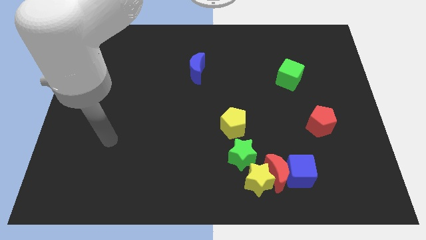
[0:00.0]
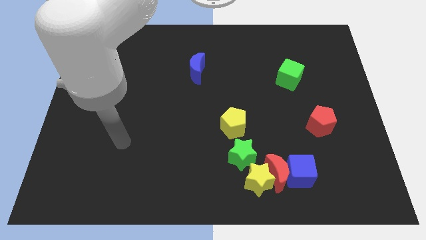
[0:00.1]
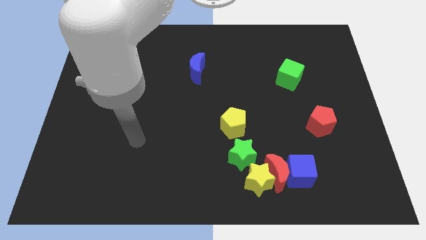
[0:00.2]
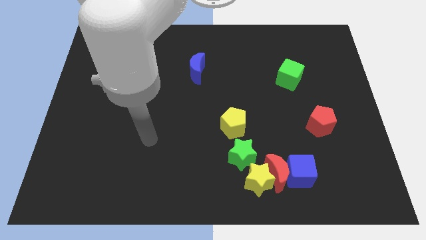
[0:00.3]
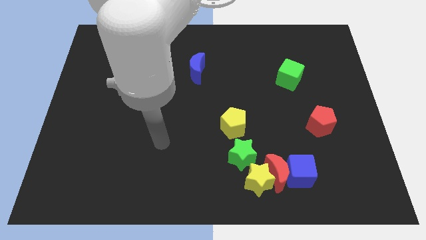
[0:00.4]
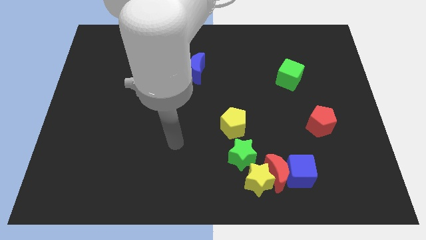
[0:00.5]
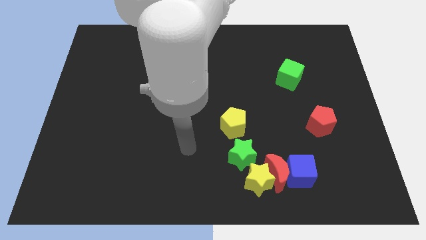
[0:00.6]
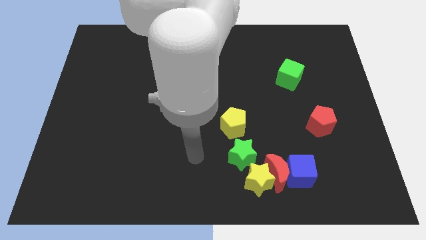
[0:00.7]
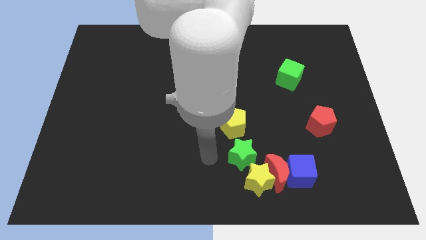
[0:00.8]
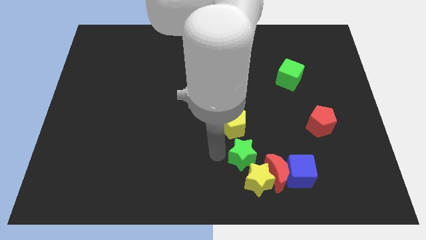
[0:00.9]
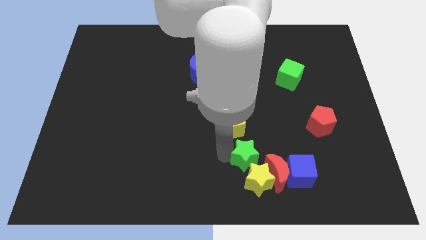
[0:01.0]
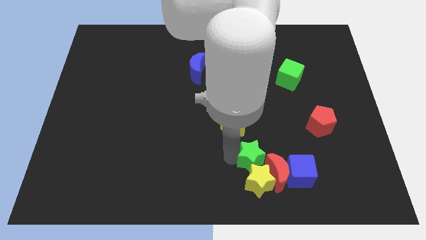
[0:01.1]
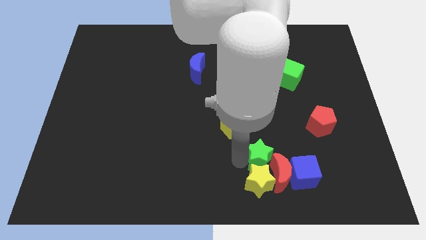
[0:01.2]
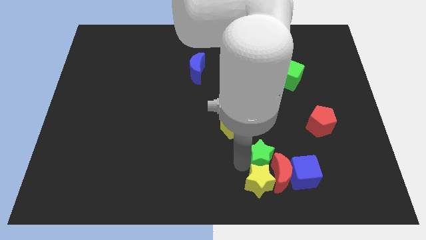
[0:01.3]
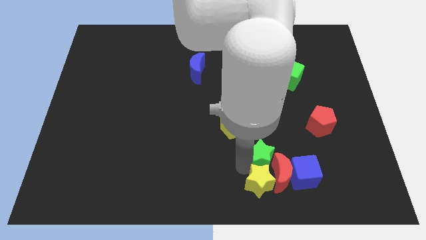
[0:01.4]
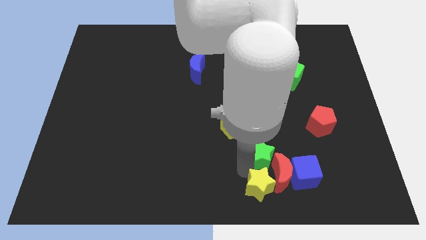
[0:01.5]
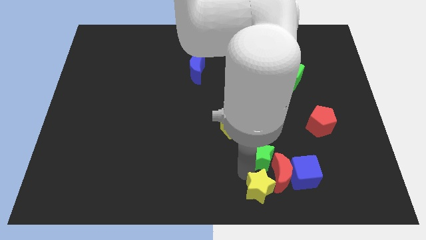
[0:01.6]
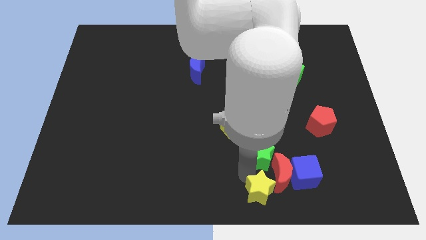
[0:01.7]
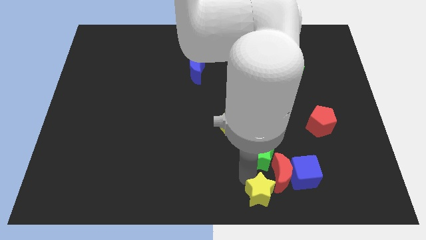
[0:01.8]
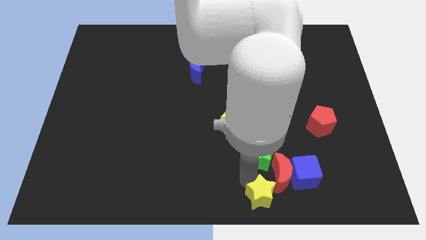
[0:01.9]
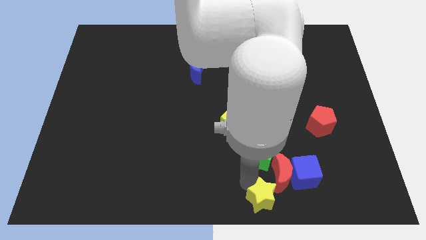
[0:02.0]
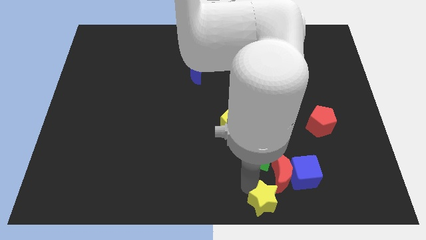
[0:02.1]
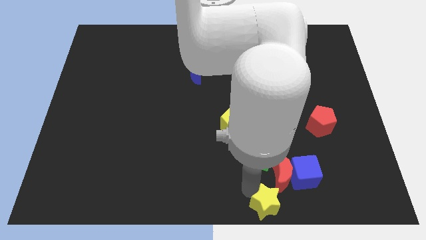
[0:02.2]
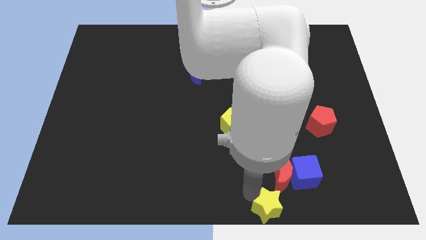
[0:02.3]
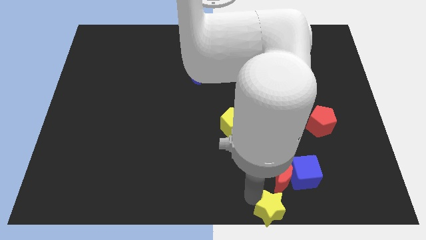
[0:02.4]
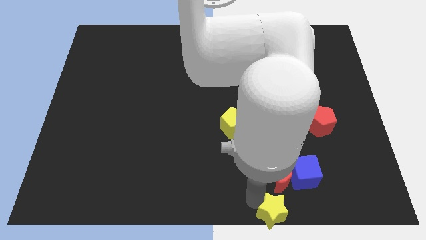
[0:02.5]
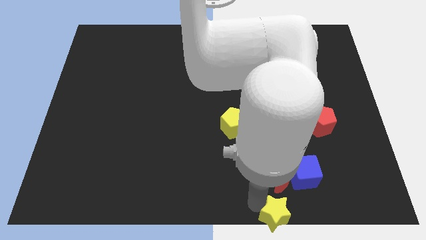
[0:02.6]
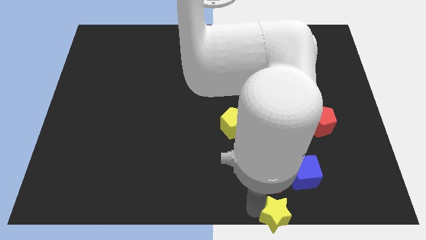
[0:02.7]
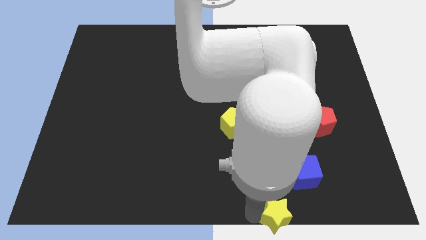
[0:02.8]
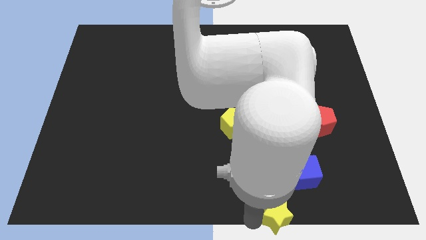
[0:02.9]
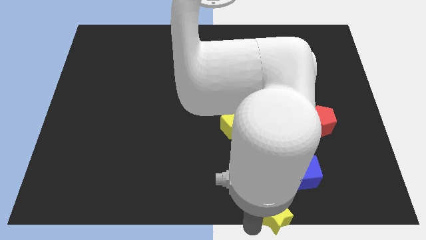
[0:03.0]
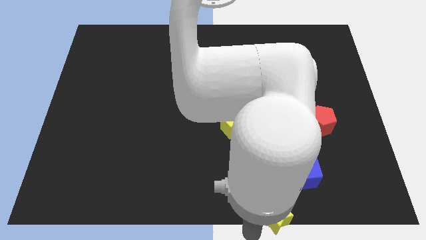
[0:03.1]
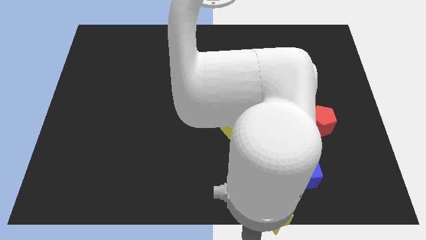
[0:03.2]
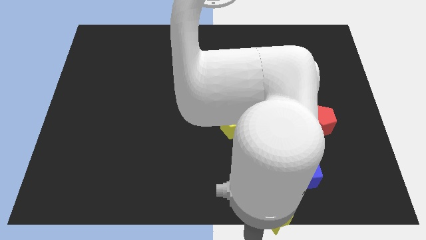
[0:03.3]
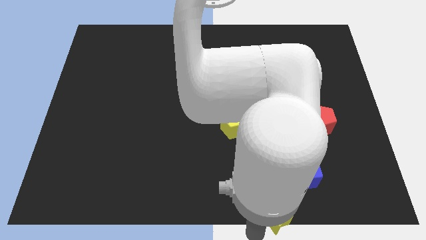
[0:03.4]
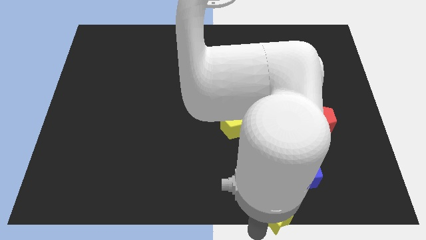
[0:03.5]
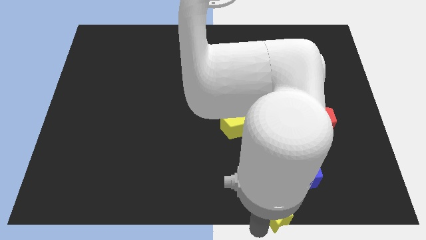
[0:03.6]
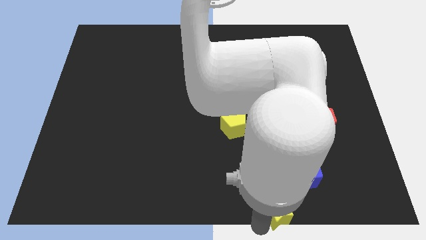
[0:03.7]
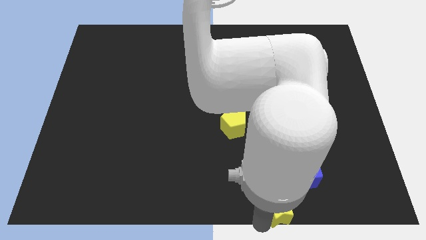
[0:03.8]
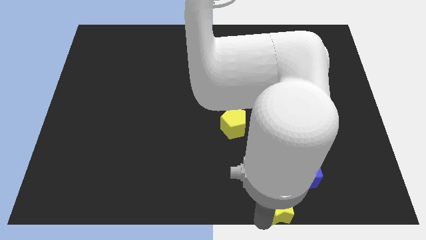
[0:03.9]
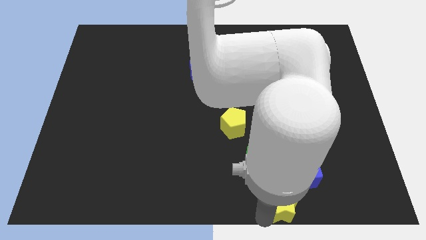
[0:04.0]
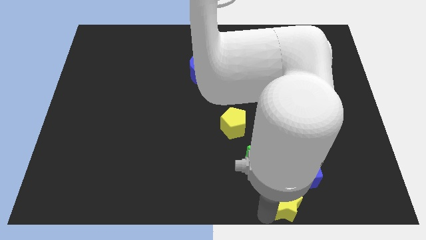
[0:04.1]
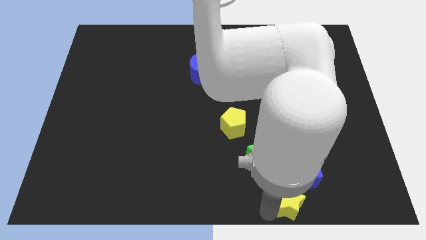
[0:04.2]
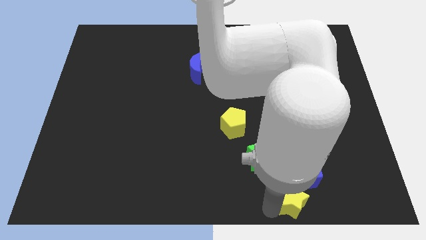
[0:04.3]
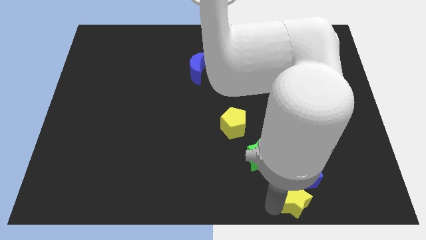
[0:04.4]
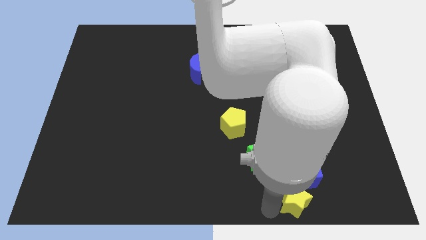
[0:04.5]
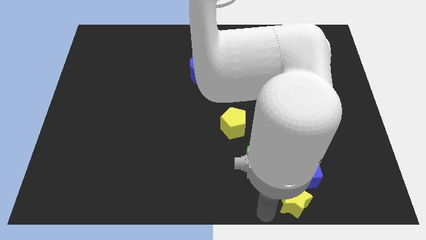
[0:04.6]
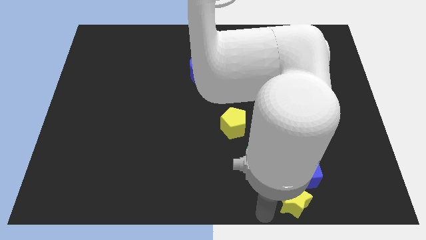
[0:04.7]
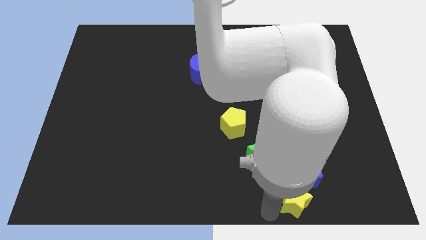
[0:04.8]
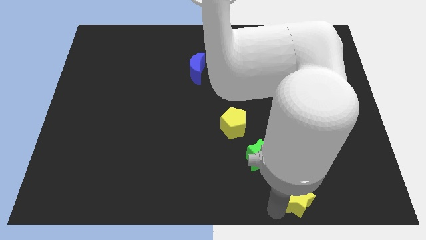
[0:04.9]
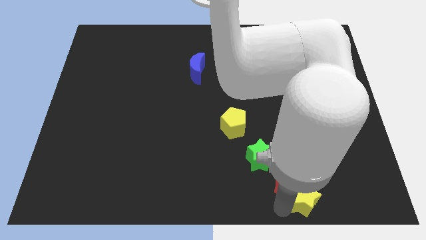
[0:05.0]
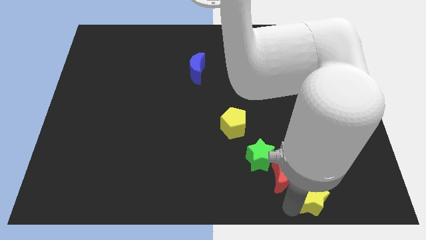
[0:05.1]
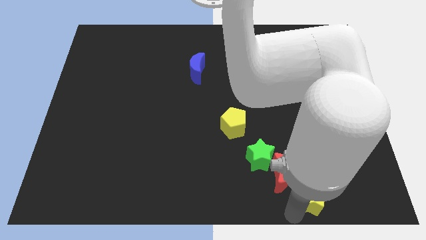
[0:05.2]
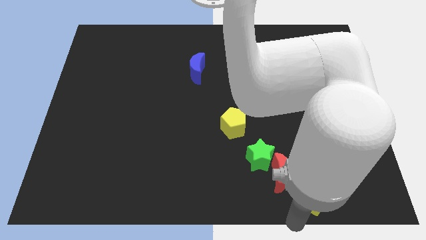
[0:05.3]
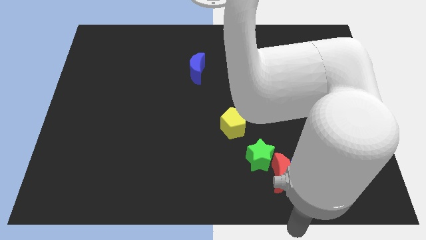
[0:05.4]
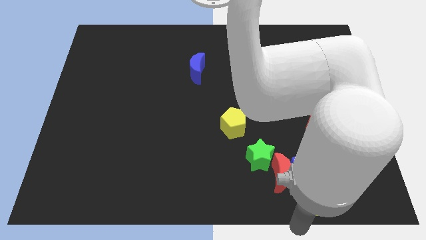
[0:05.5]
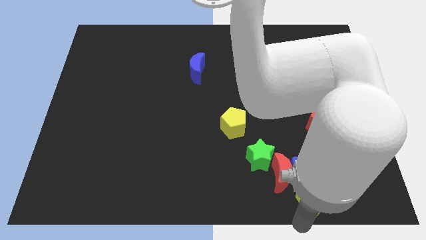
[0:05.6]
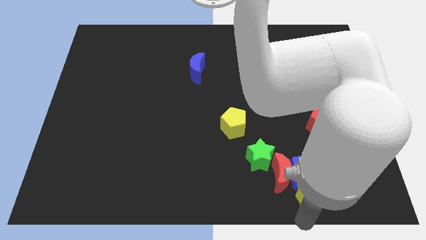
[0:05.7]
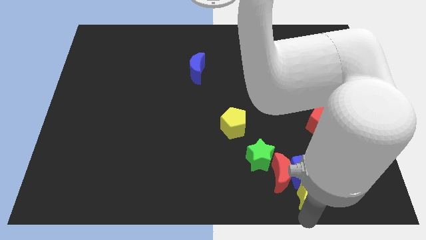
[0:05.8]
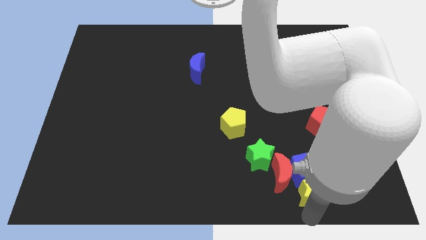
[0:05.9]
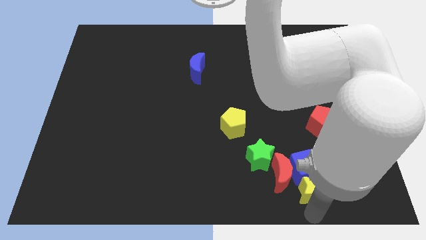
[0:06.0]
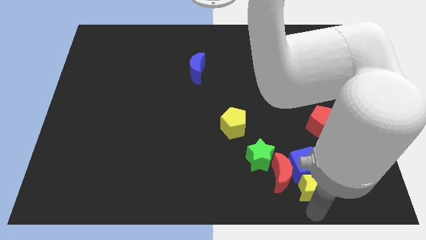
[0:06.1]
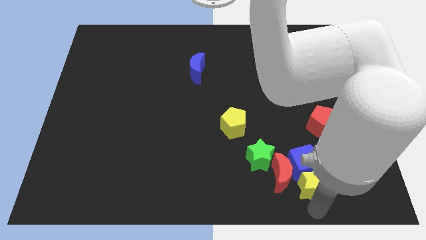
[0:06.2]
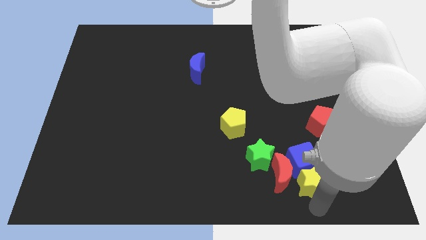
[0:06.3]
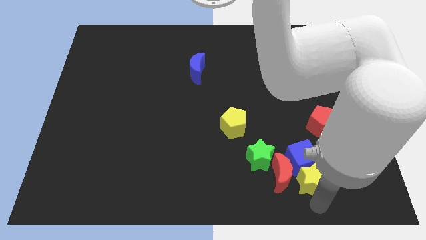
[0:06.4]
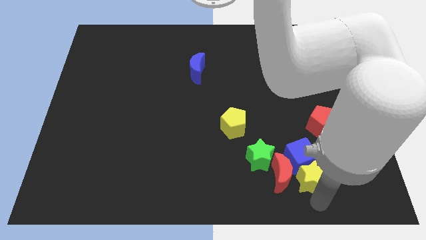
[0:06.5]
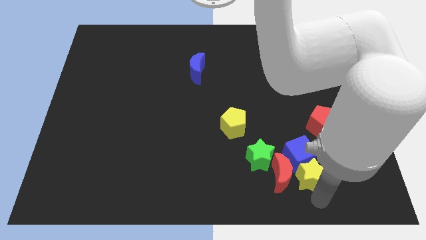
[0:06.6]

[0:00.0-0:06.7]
slide the yellow star below the red pentagon

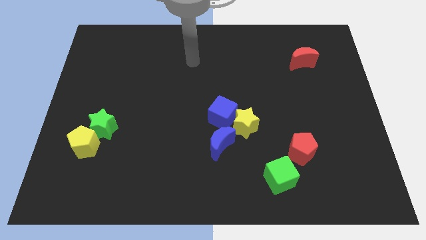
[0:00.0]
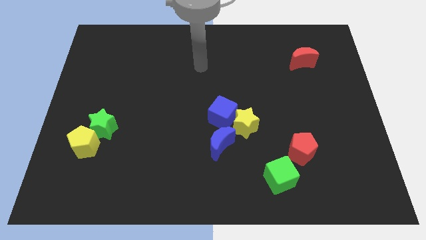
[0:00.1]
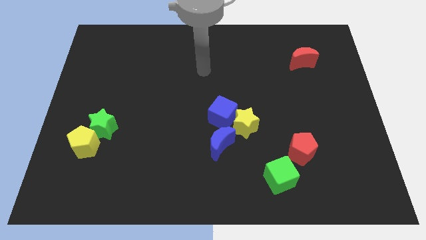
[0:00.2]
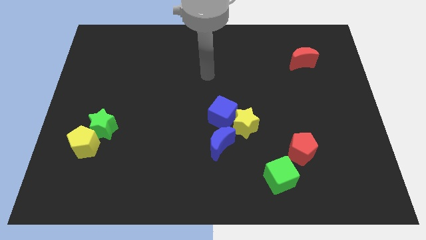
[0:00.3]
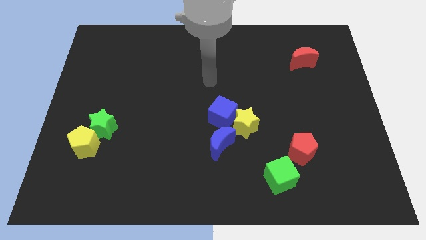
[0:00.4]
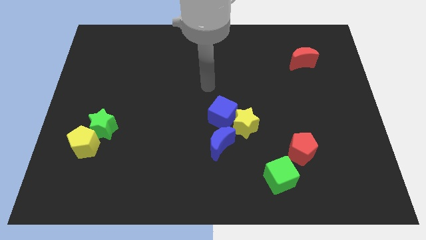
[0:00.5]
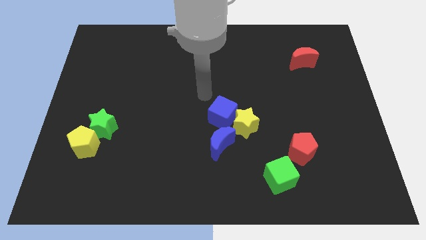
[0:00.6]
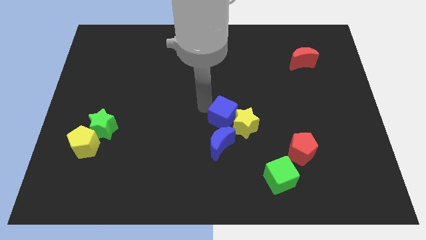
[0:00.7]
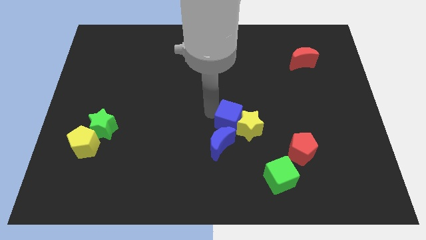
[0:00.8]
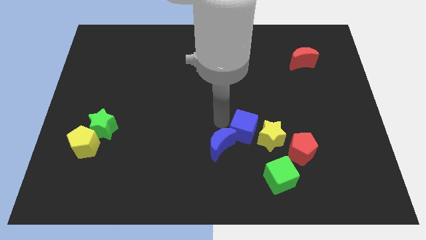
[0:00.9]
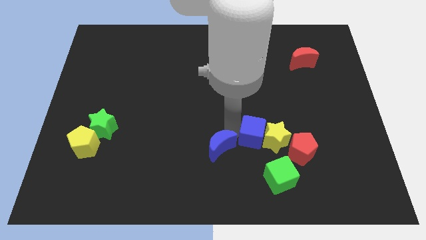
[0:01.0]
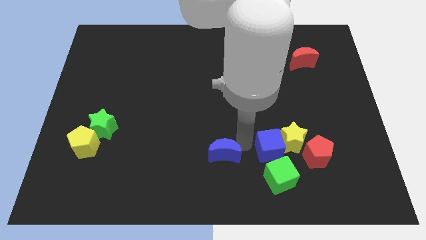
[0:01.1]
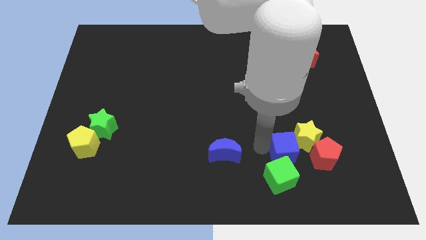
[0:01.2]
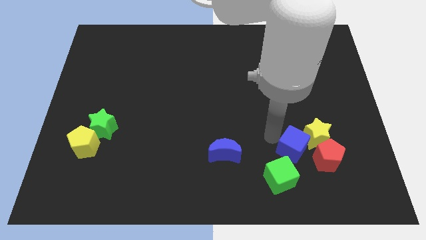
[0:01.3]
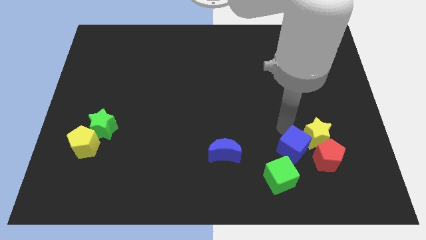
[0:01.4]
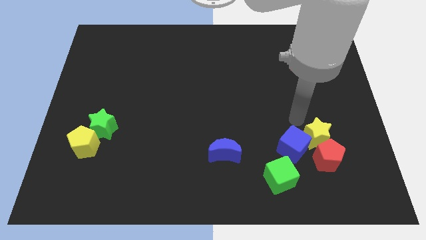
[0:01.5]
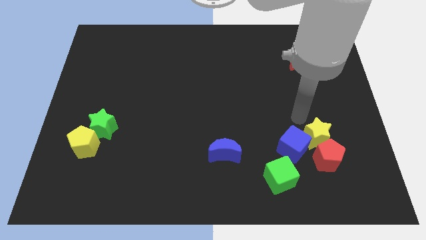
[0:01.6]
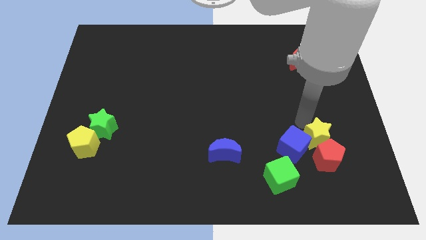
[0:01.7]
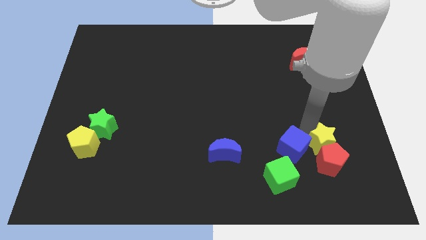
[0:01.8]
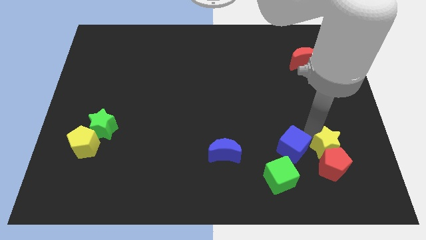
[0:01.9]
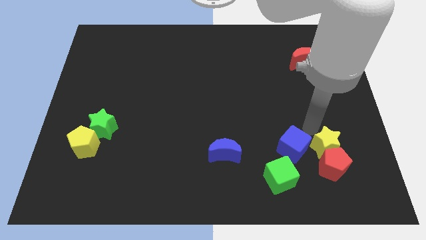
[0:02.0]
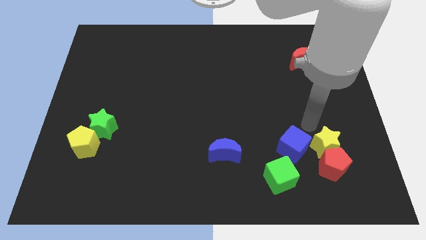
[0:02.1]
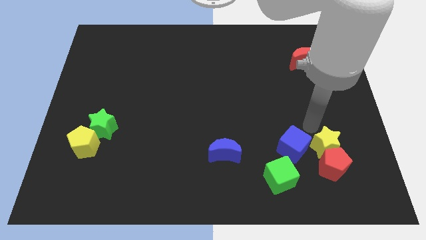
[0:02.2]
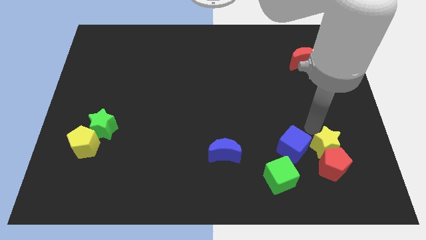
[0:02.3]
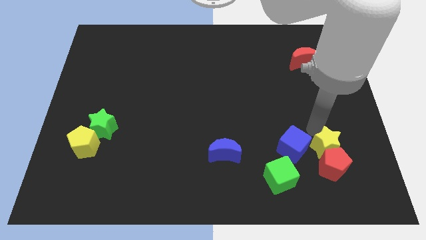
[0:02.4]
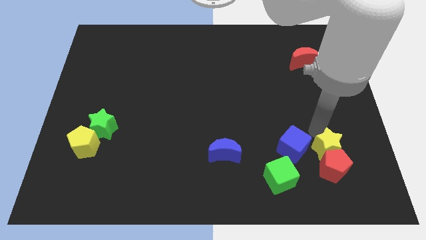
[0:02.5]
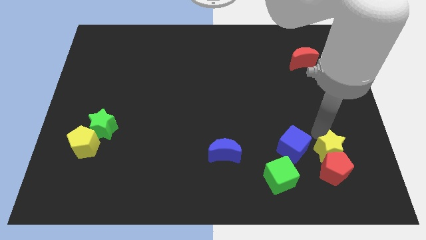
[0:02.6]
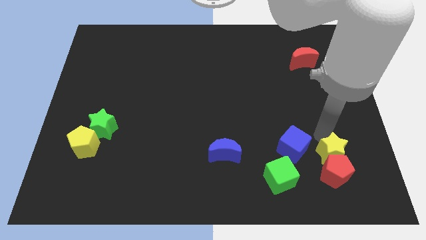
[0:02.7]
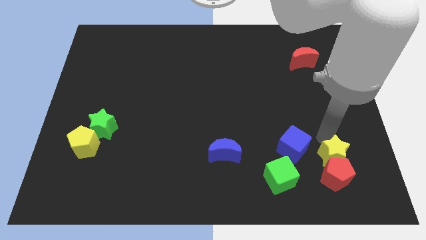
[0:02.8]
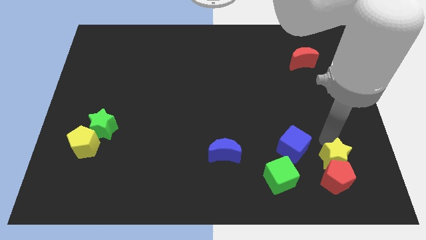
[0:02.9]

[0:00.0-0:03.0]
put the yellow star right of the green cube
